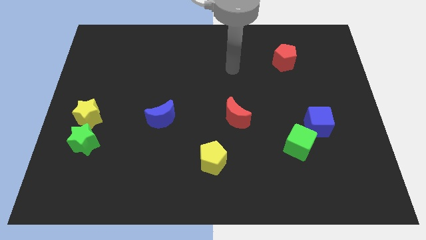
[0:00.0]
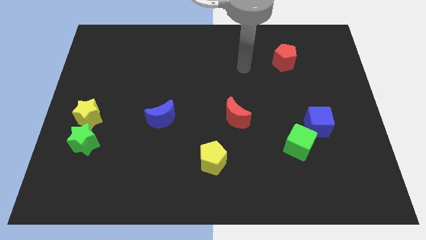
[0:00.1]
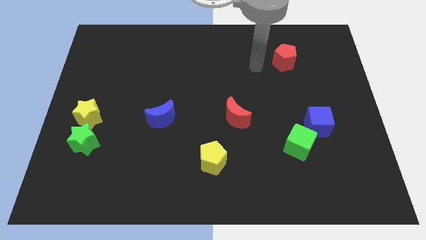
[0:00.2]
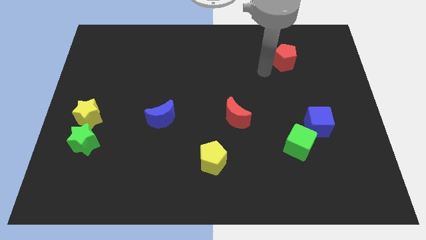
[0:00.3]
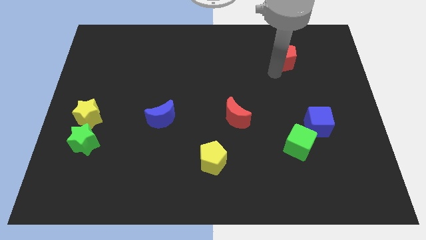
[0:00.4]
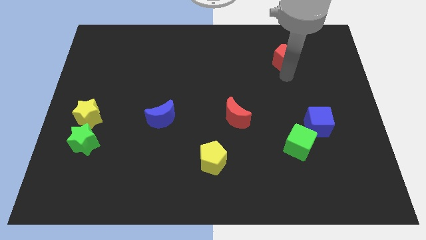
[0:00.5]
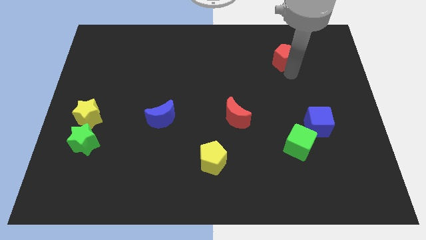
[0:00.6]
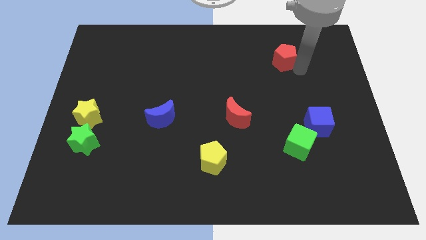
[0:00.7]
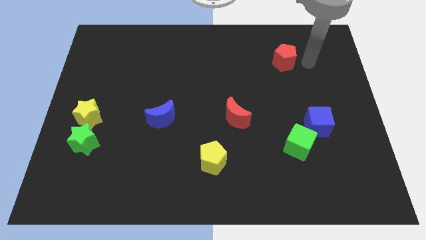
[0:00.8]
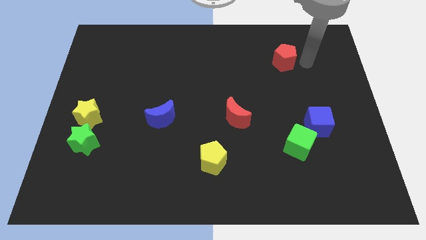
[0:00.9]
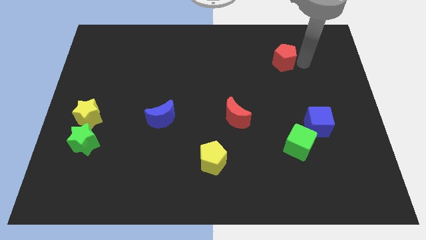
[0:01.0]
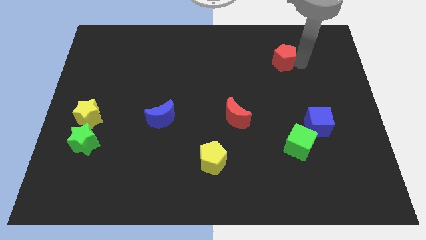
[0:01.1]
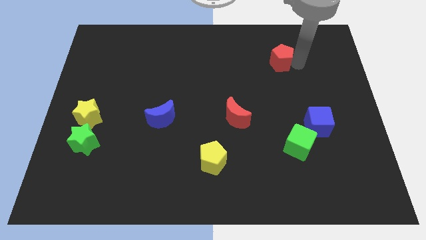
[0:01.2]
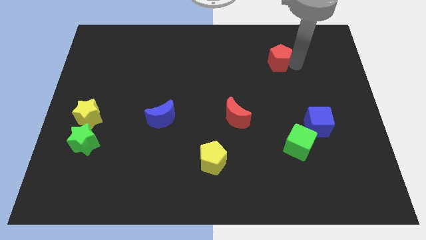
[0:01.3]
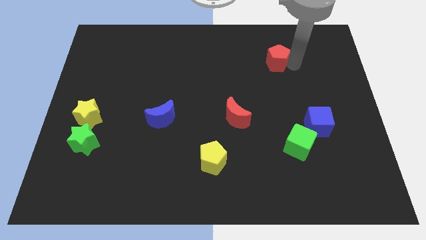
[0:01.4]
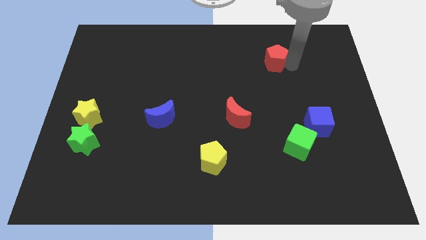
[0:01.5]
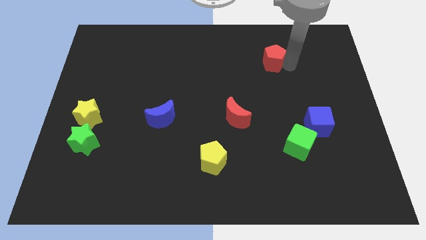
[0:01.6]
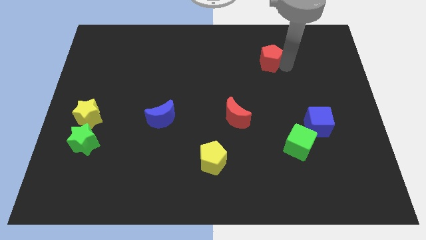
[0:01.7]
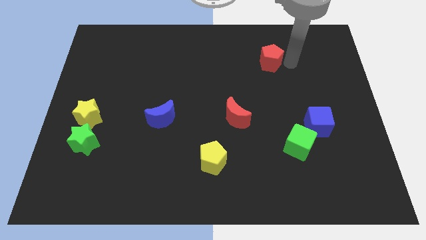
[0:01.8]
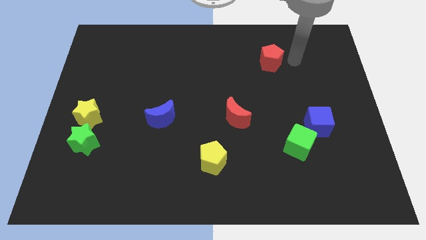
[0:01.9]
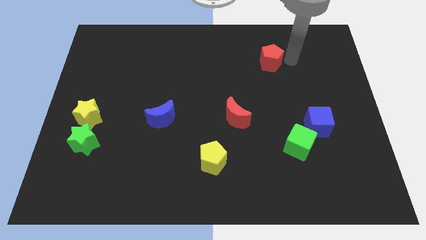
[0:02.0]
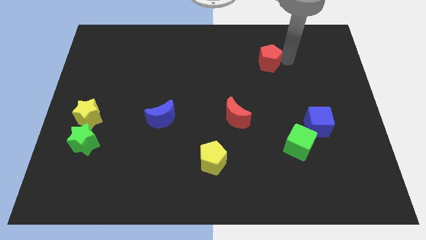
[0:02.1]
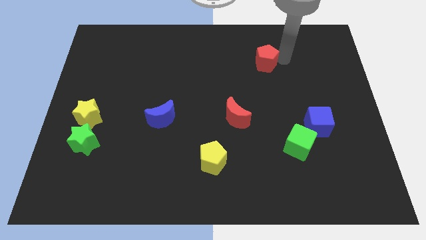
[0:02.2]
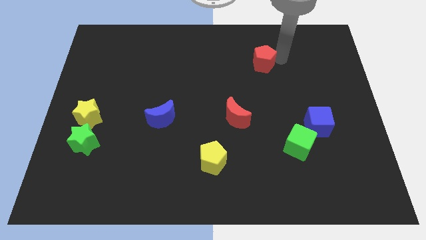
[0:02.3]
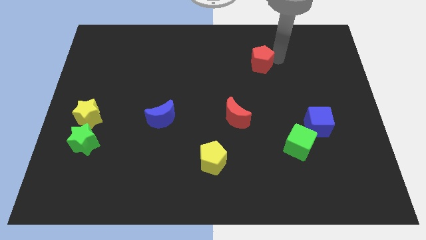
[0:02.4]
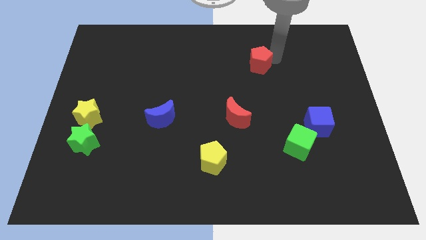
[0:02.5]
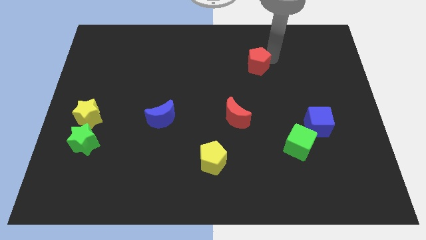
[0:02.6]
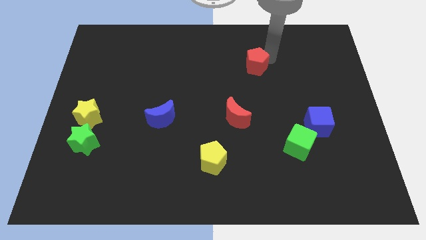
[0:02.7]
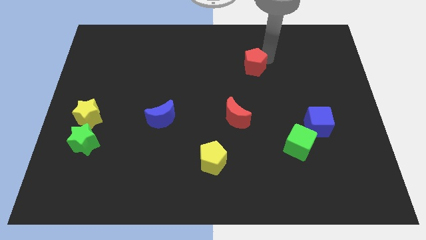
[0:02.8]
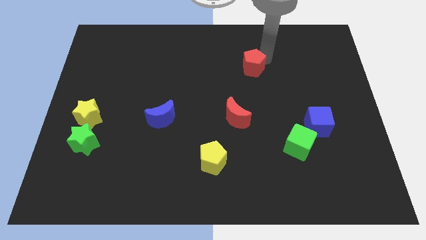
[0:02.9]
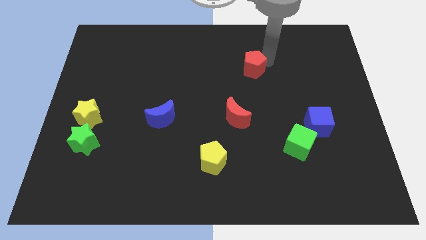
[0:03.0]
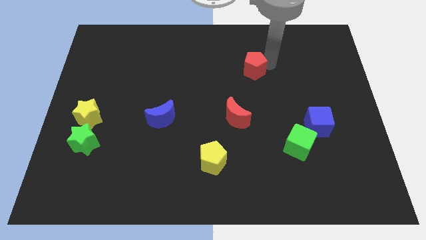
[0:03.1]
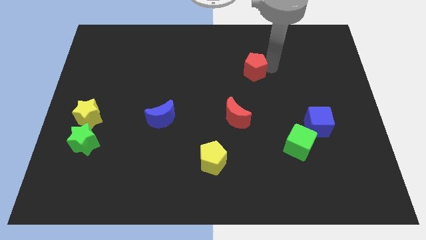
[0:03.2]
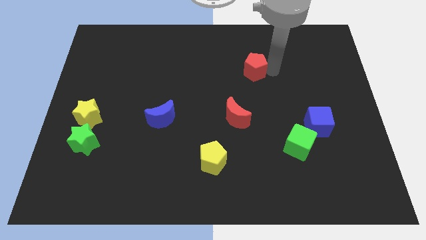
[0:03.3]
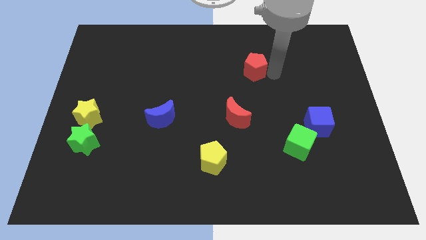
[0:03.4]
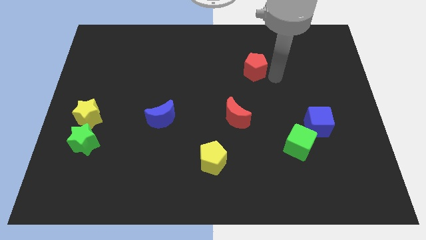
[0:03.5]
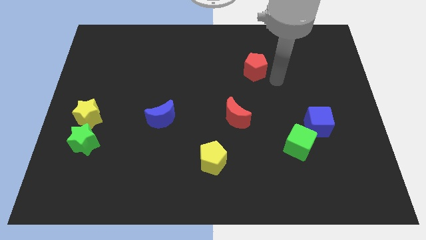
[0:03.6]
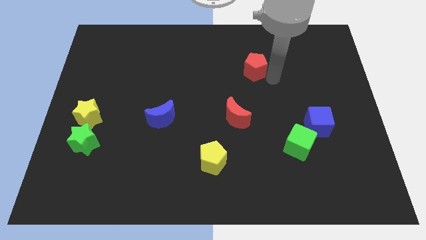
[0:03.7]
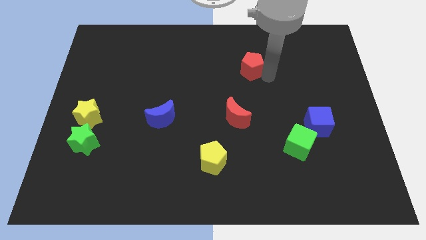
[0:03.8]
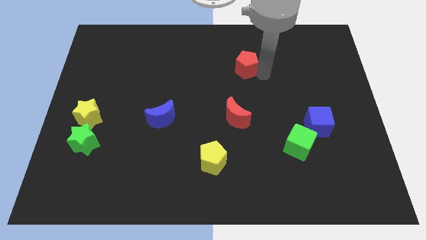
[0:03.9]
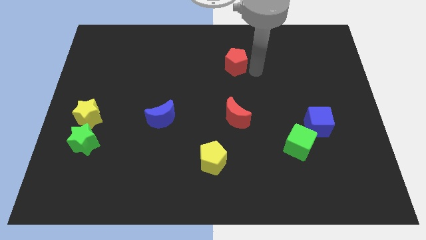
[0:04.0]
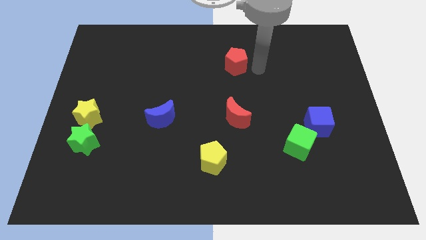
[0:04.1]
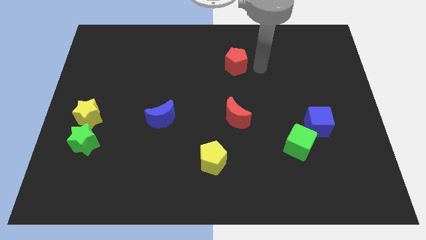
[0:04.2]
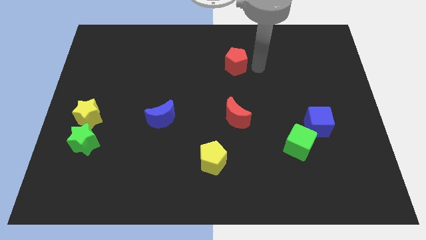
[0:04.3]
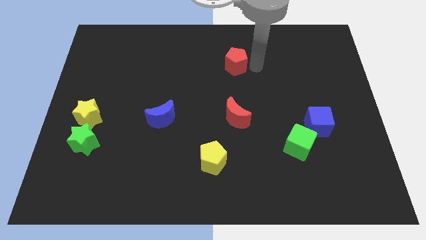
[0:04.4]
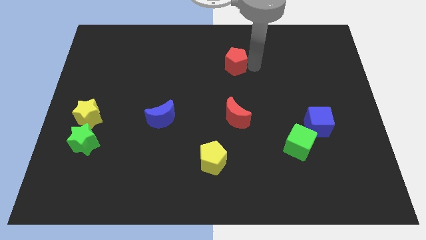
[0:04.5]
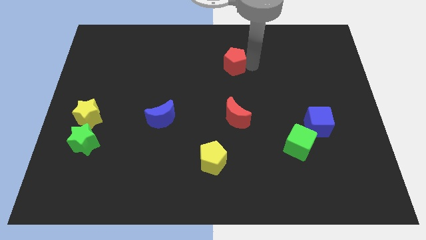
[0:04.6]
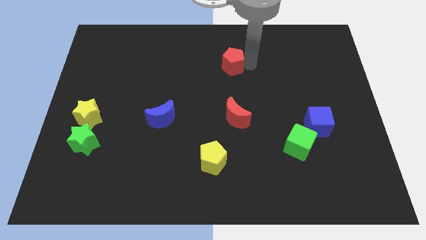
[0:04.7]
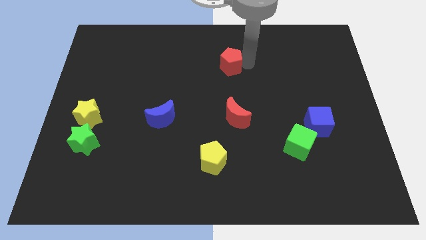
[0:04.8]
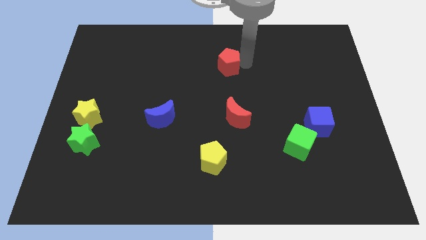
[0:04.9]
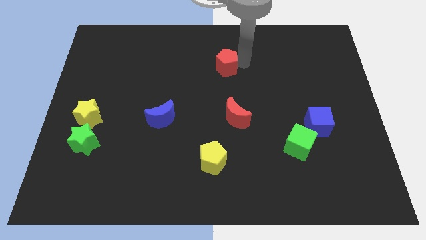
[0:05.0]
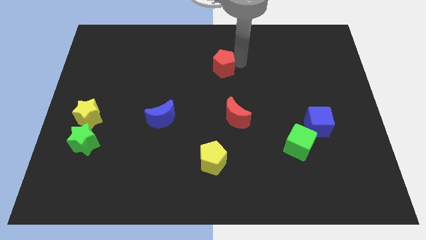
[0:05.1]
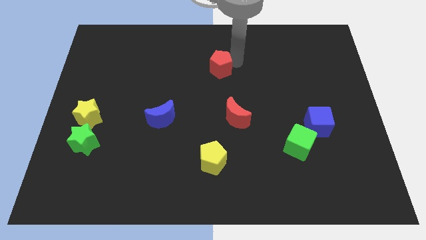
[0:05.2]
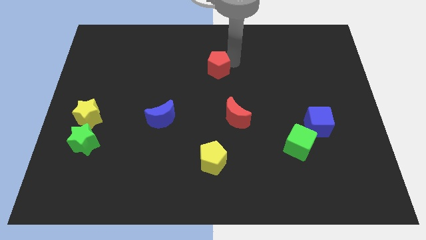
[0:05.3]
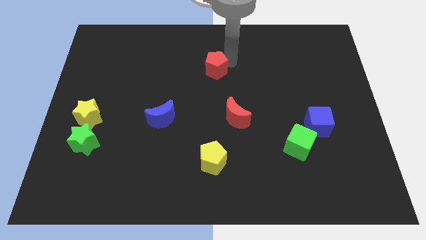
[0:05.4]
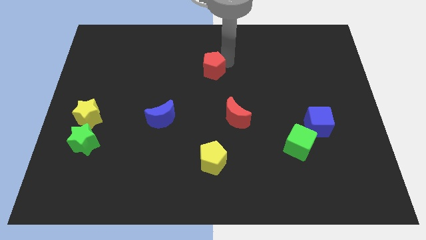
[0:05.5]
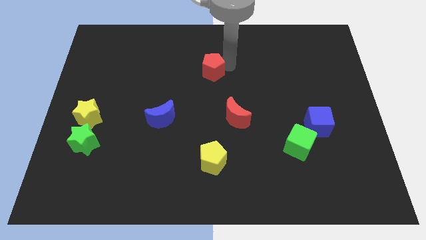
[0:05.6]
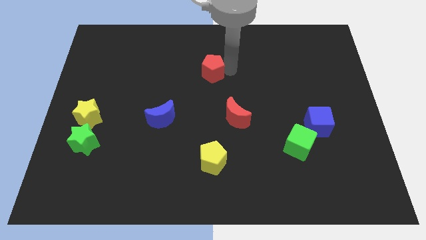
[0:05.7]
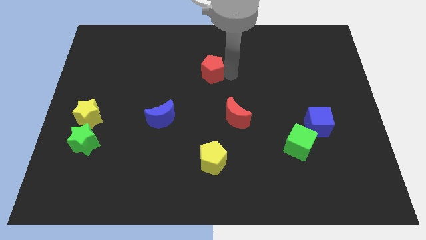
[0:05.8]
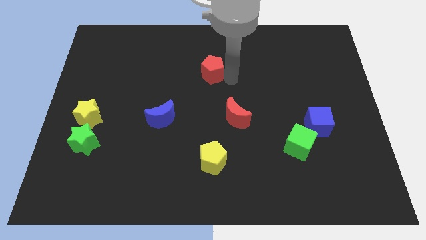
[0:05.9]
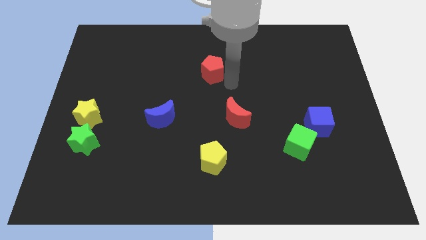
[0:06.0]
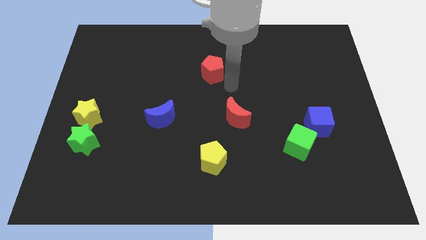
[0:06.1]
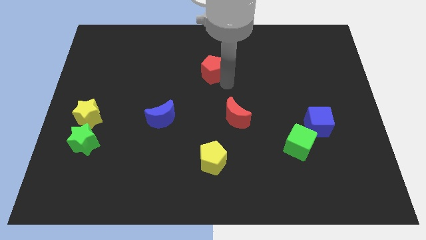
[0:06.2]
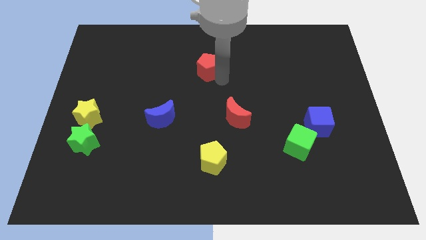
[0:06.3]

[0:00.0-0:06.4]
push the red pentagon to the left

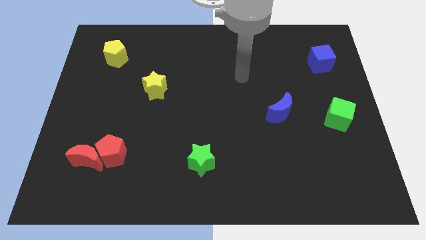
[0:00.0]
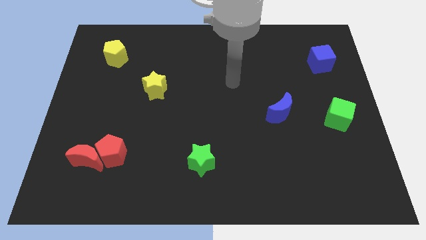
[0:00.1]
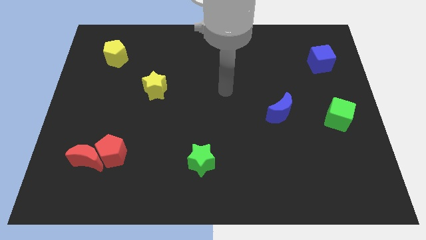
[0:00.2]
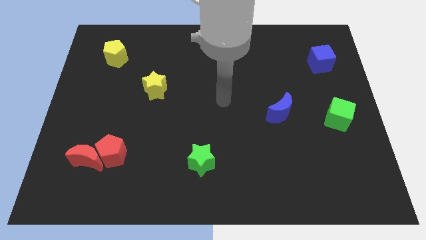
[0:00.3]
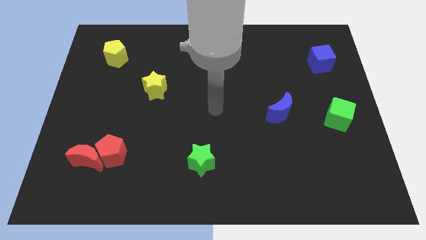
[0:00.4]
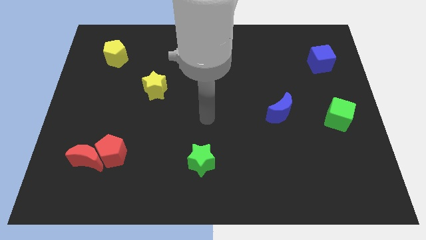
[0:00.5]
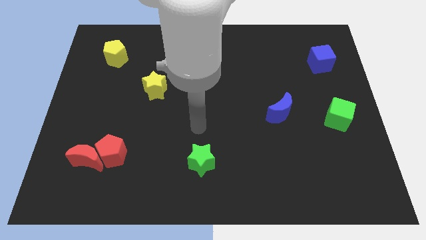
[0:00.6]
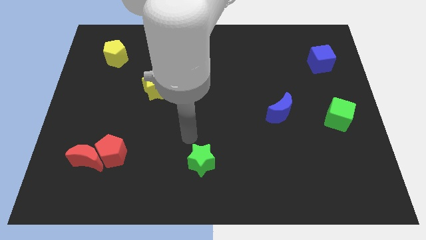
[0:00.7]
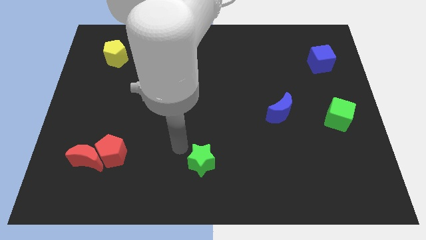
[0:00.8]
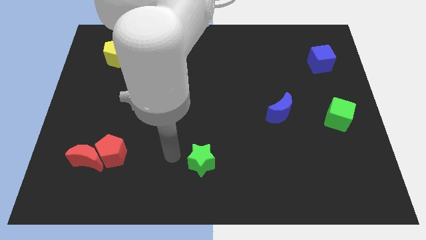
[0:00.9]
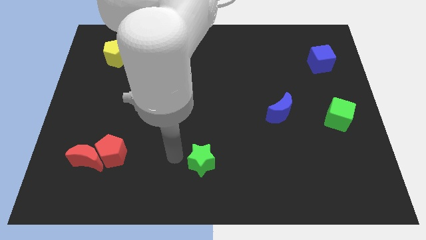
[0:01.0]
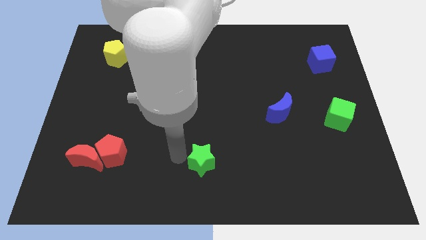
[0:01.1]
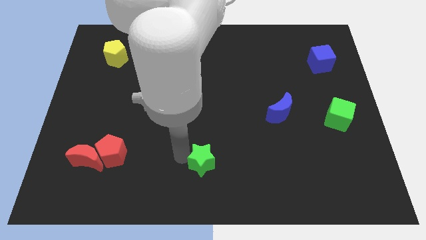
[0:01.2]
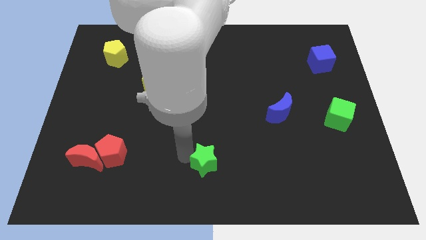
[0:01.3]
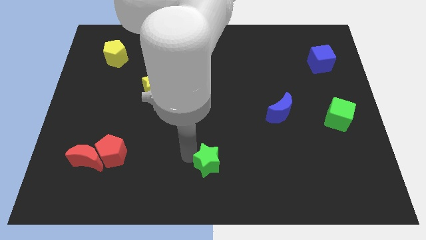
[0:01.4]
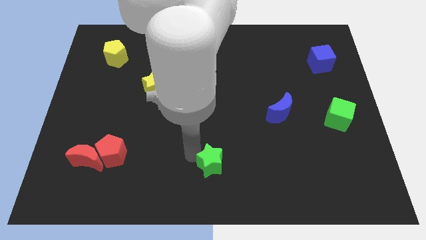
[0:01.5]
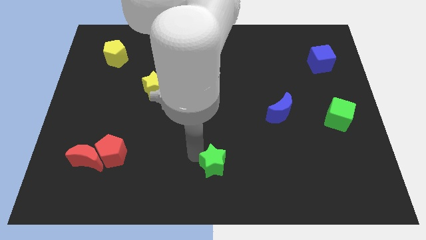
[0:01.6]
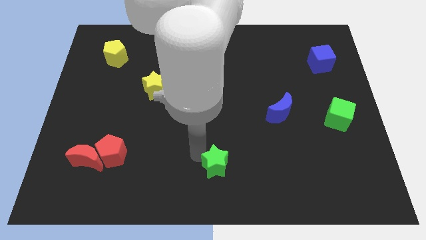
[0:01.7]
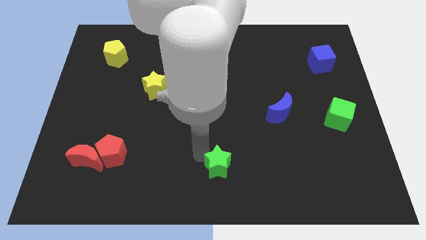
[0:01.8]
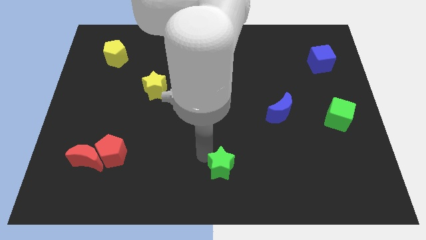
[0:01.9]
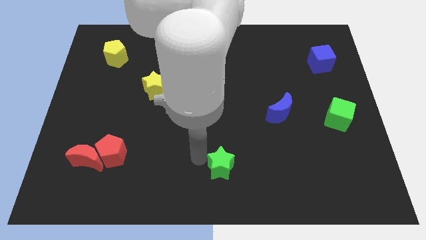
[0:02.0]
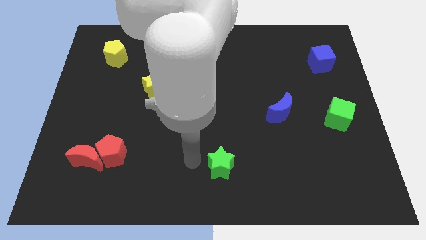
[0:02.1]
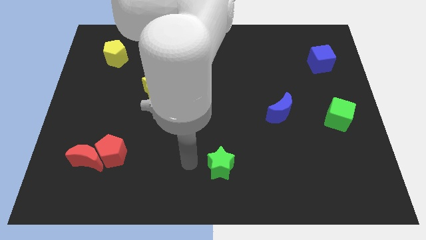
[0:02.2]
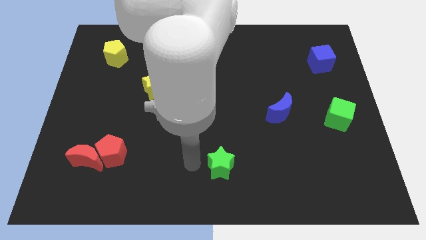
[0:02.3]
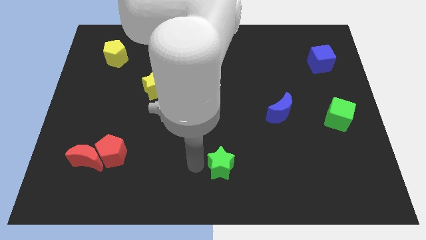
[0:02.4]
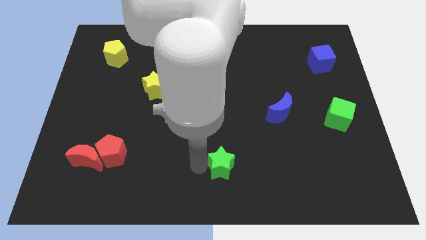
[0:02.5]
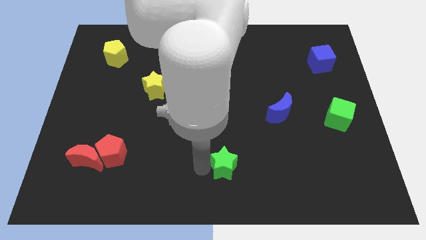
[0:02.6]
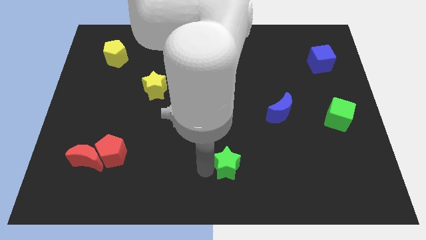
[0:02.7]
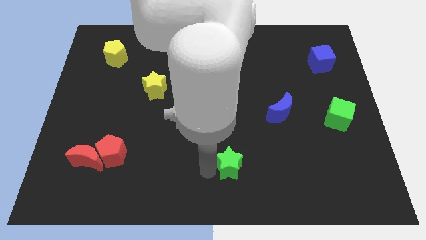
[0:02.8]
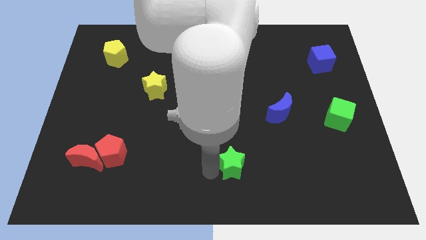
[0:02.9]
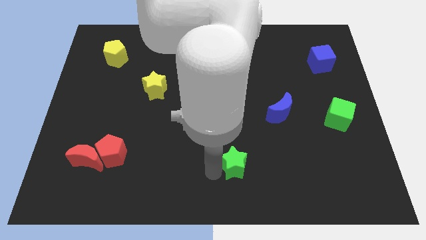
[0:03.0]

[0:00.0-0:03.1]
slide the green star right a little bit
